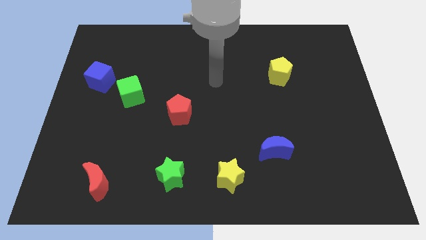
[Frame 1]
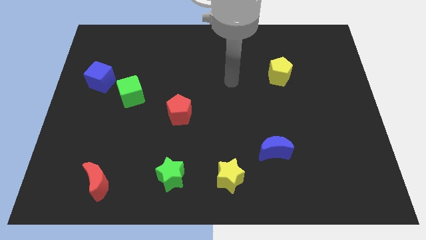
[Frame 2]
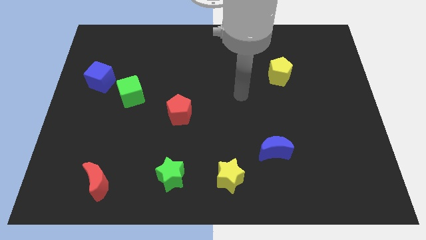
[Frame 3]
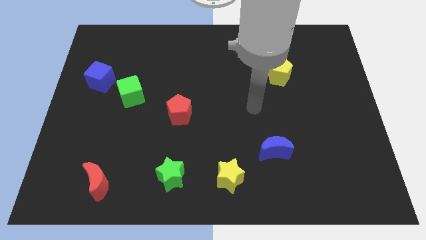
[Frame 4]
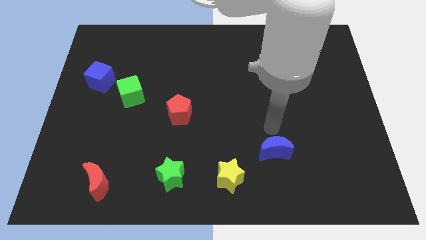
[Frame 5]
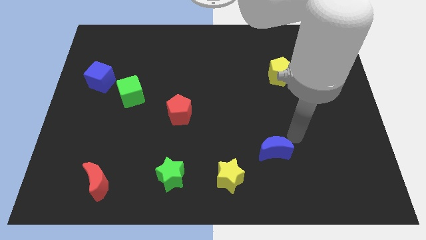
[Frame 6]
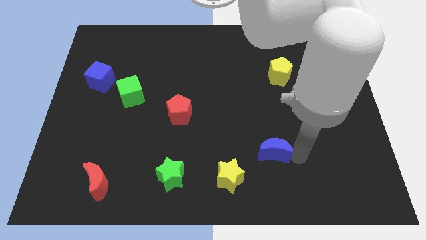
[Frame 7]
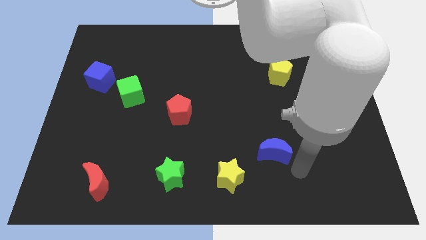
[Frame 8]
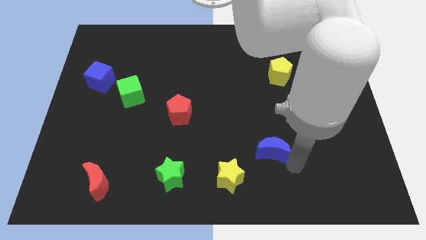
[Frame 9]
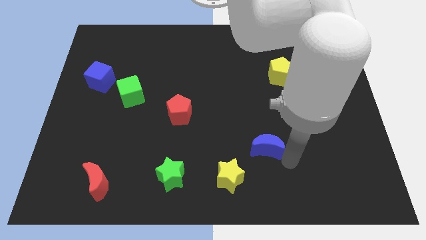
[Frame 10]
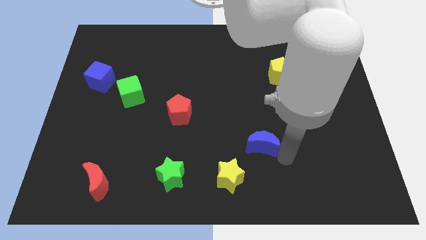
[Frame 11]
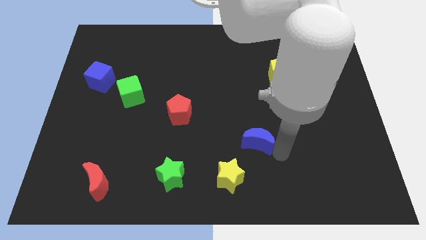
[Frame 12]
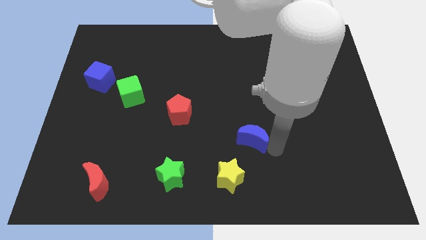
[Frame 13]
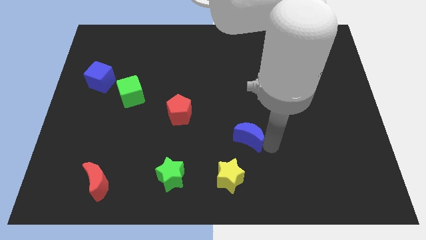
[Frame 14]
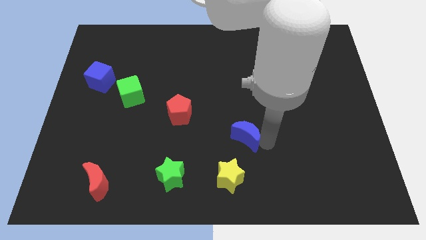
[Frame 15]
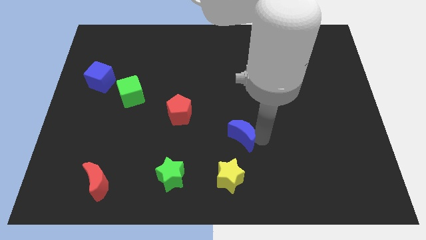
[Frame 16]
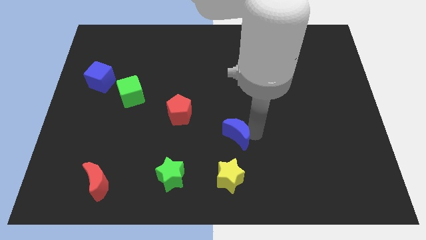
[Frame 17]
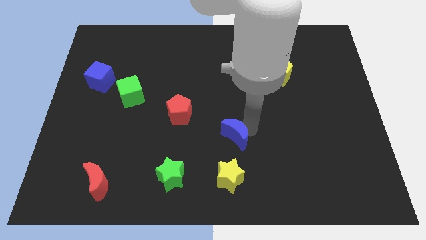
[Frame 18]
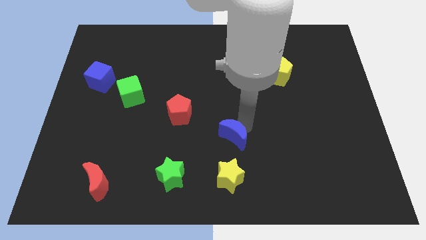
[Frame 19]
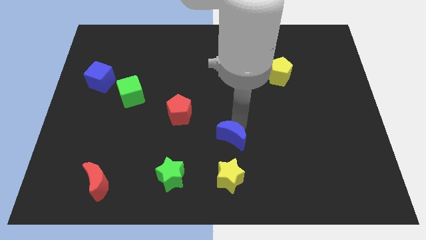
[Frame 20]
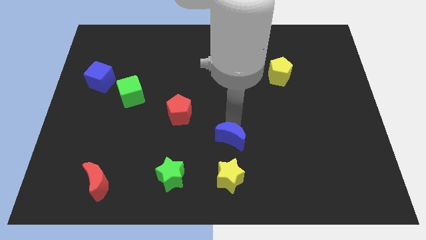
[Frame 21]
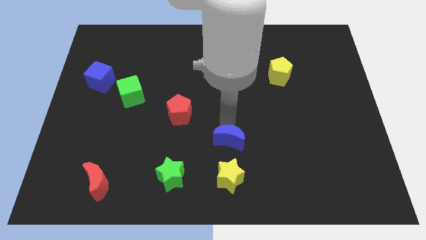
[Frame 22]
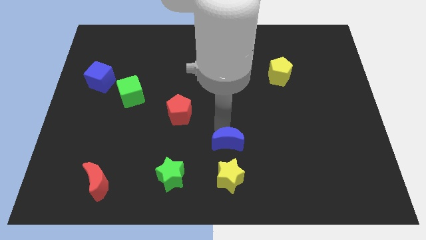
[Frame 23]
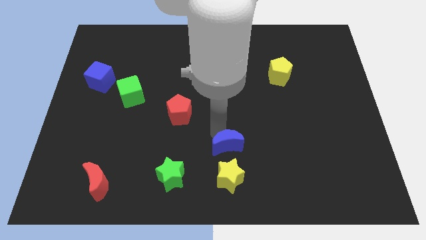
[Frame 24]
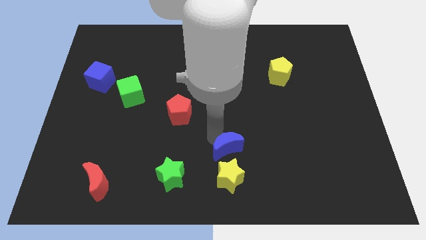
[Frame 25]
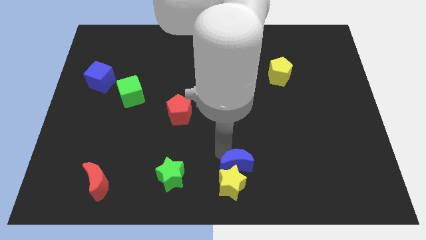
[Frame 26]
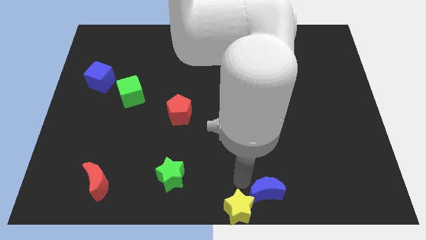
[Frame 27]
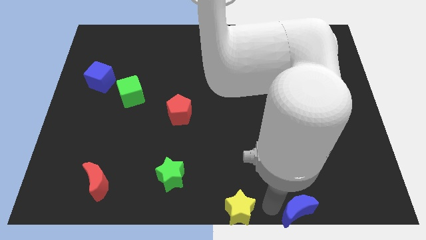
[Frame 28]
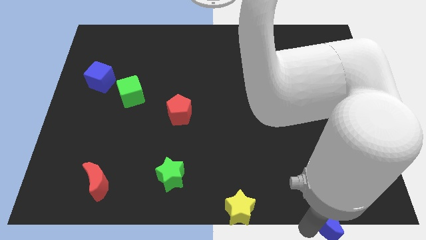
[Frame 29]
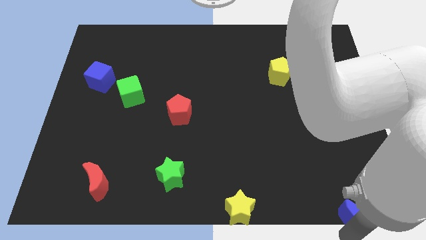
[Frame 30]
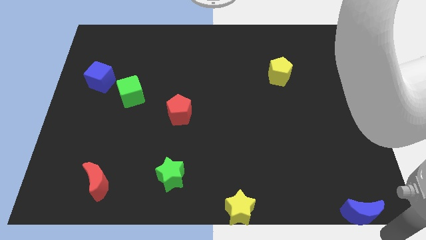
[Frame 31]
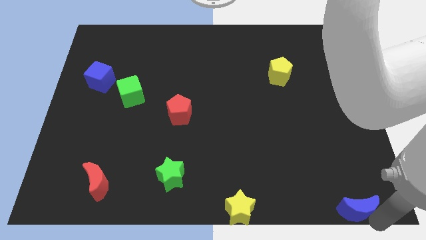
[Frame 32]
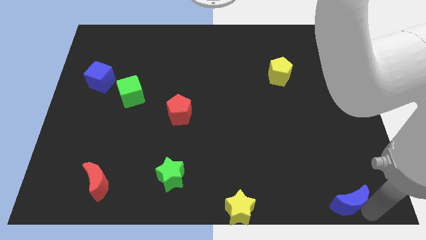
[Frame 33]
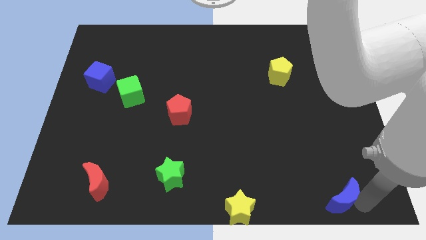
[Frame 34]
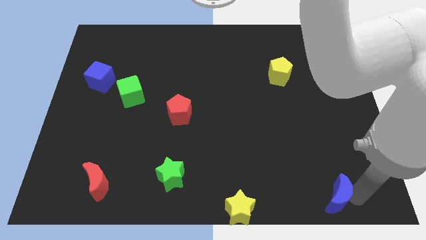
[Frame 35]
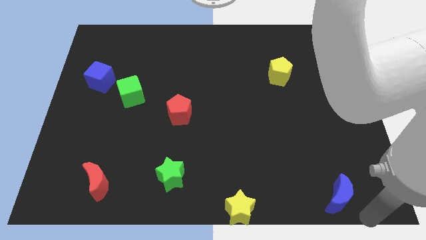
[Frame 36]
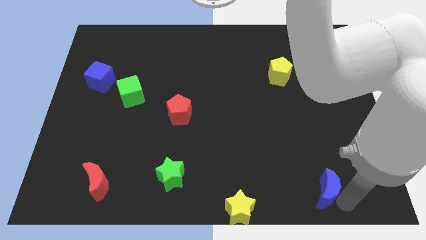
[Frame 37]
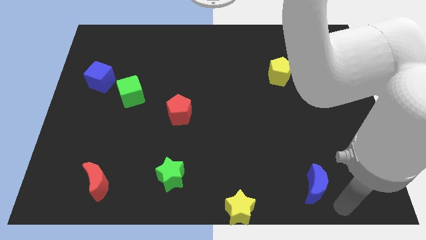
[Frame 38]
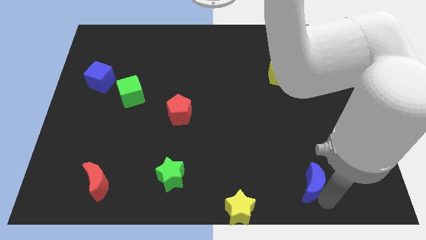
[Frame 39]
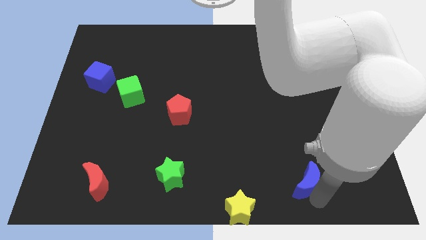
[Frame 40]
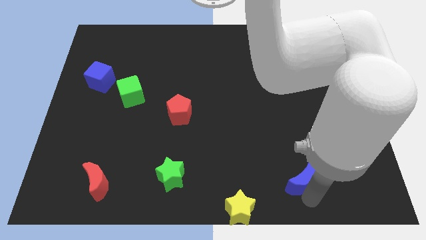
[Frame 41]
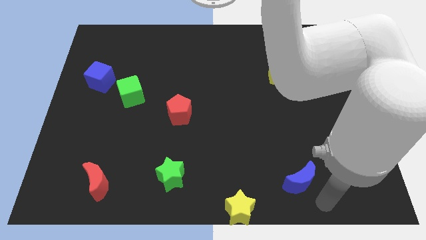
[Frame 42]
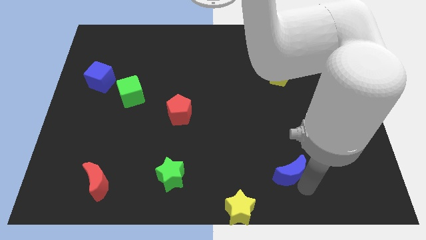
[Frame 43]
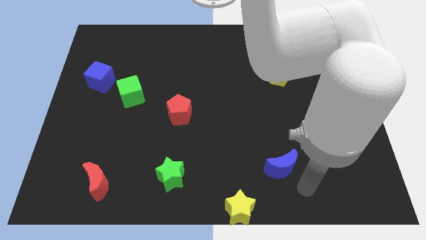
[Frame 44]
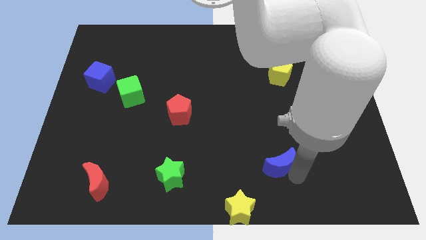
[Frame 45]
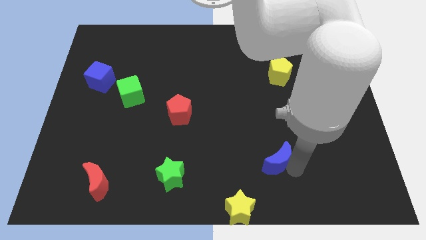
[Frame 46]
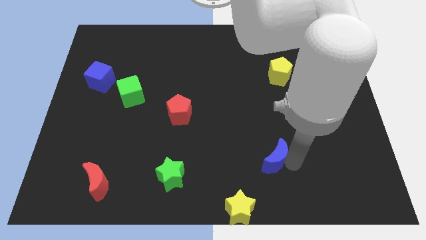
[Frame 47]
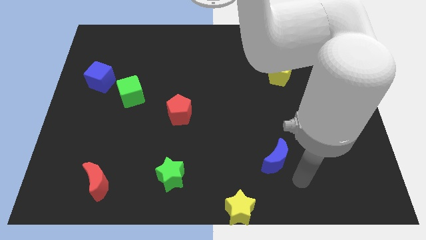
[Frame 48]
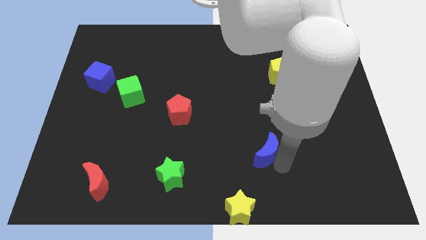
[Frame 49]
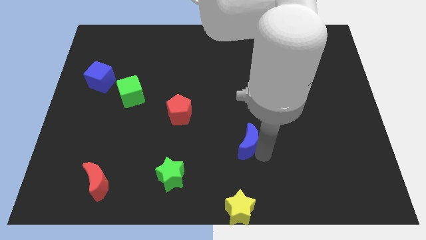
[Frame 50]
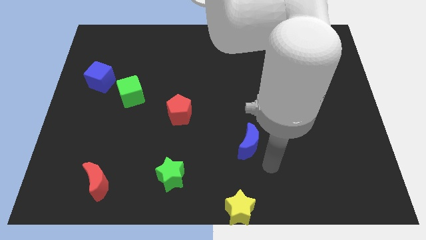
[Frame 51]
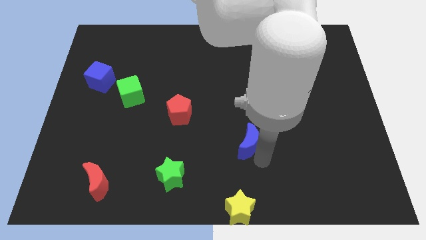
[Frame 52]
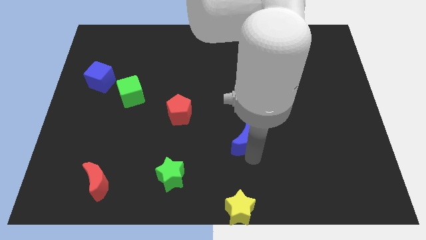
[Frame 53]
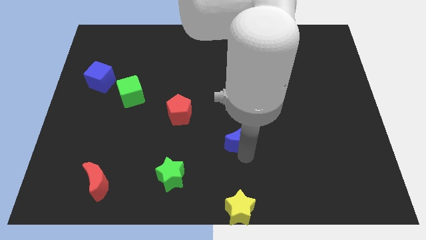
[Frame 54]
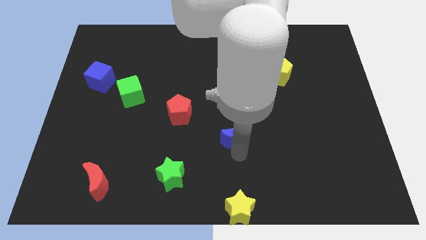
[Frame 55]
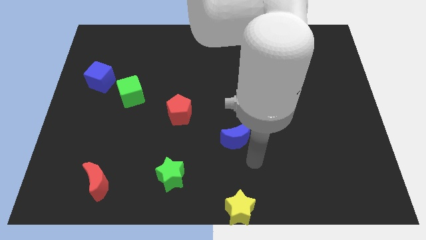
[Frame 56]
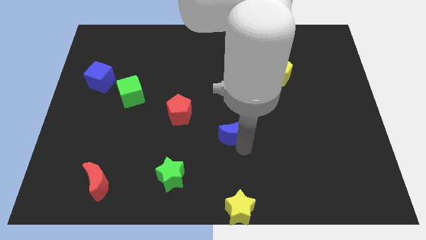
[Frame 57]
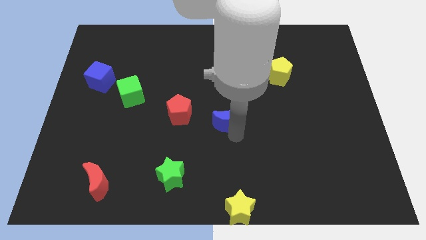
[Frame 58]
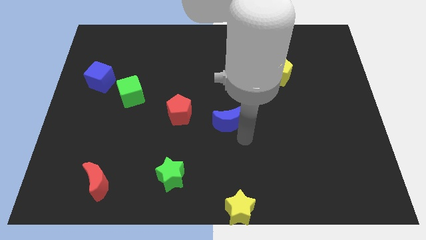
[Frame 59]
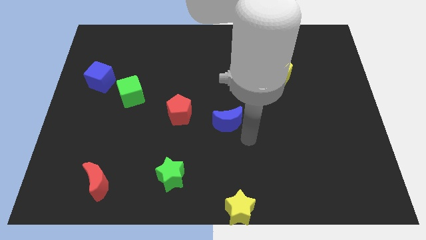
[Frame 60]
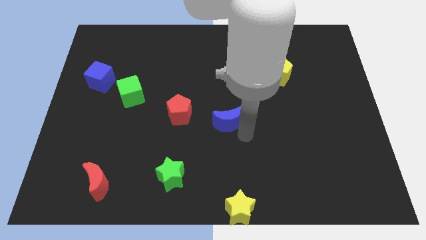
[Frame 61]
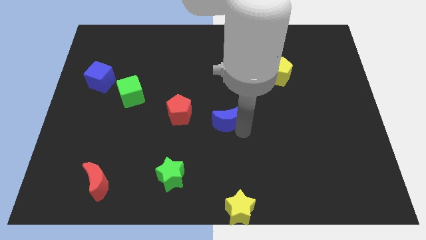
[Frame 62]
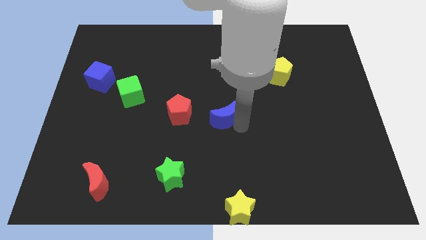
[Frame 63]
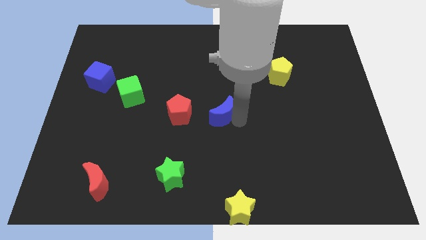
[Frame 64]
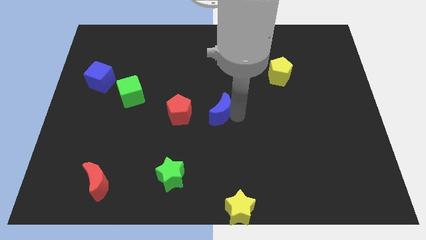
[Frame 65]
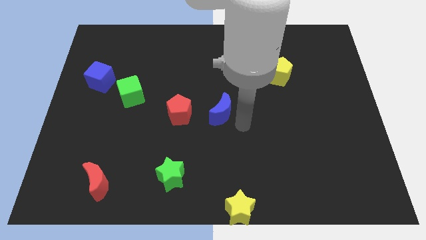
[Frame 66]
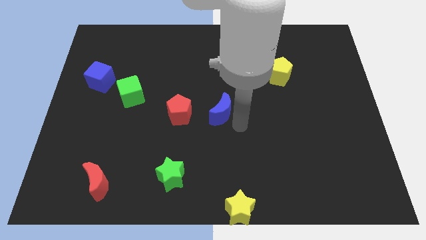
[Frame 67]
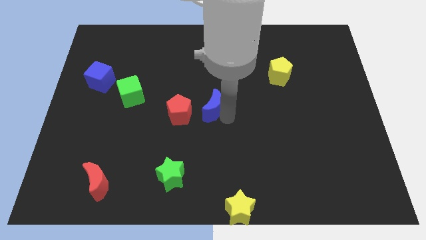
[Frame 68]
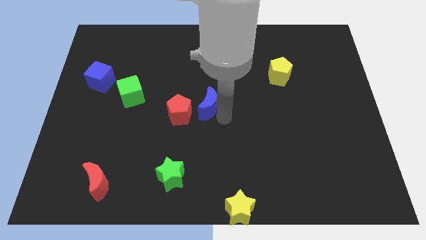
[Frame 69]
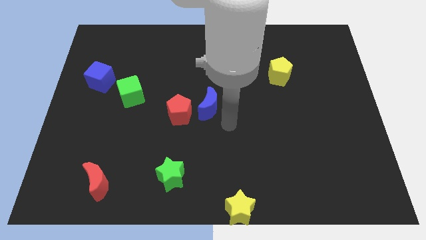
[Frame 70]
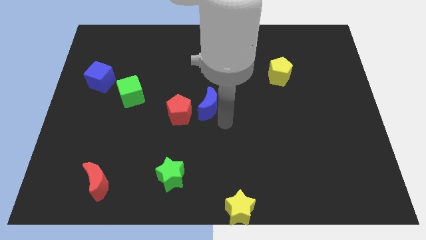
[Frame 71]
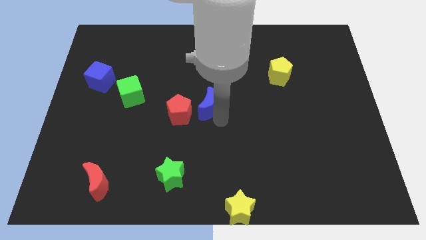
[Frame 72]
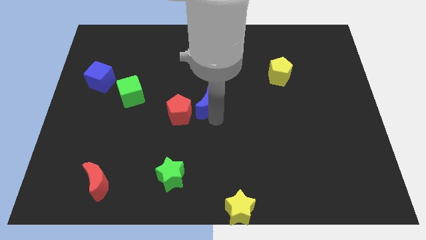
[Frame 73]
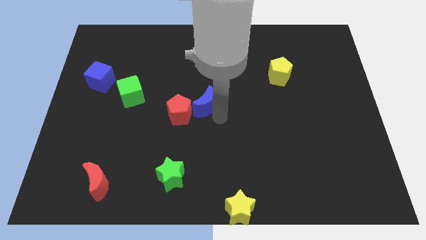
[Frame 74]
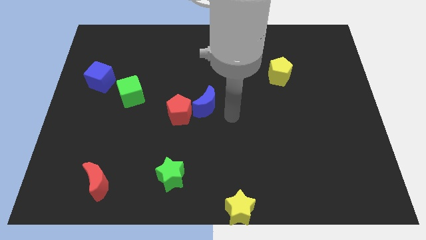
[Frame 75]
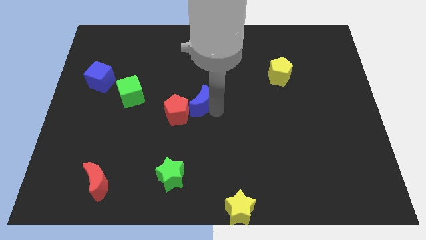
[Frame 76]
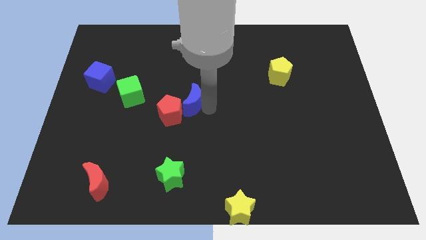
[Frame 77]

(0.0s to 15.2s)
put the blue moon to the right of the green cube
